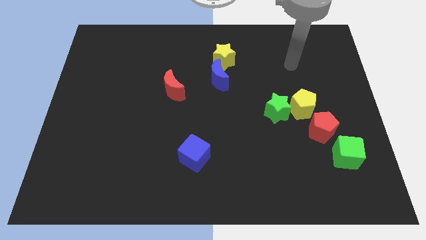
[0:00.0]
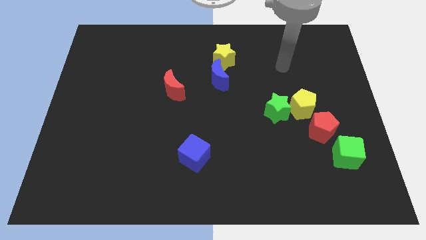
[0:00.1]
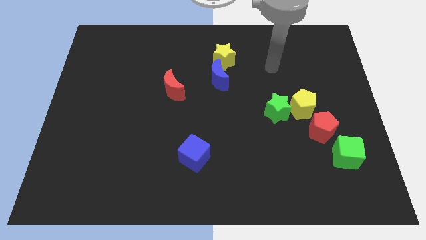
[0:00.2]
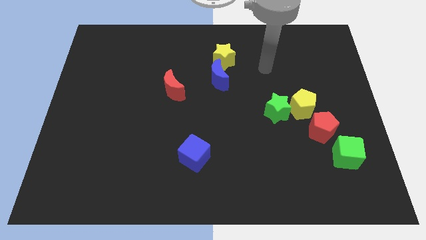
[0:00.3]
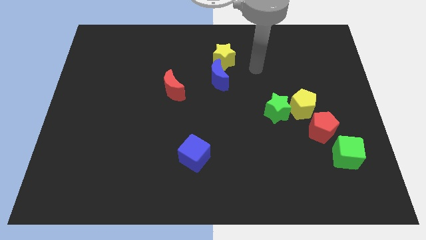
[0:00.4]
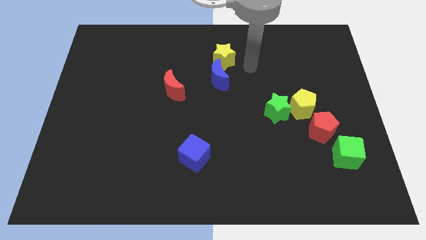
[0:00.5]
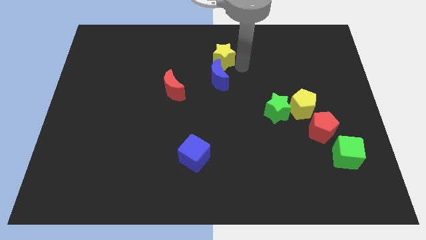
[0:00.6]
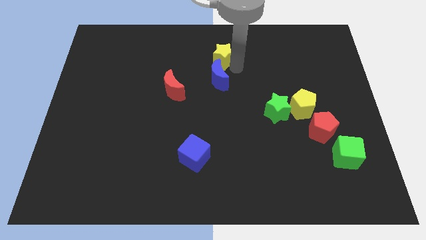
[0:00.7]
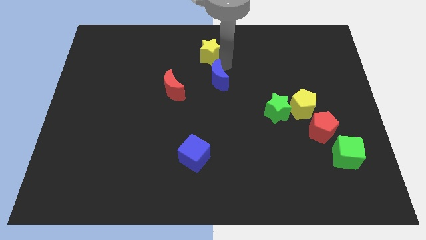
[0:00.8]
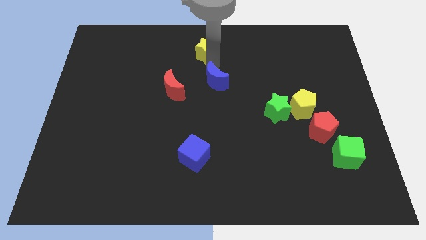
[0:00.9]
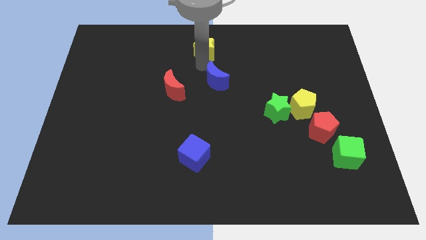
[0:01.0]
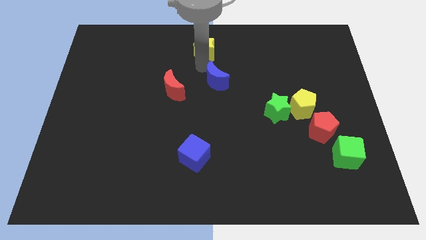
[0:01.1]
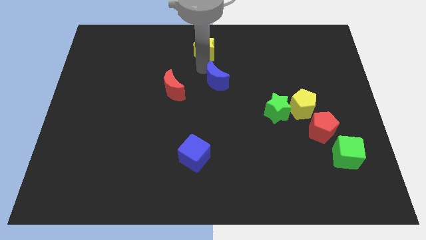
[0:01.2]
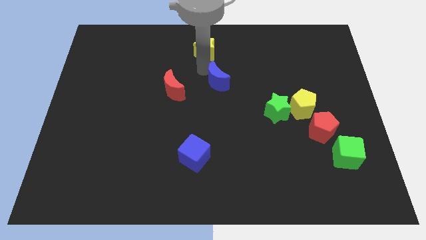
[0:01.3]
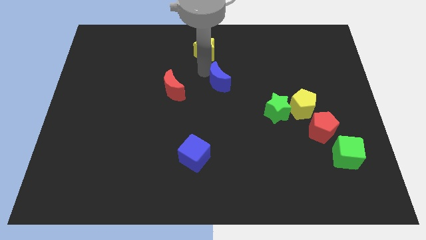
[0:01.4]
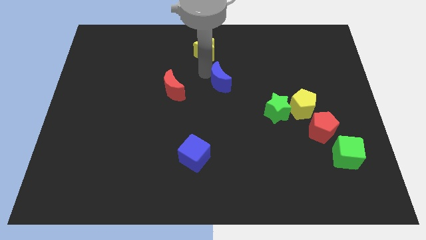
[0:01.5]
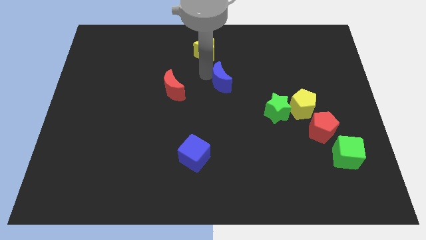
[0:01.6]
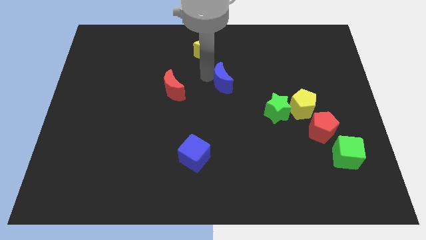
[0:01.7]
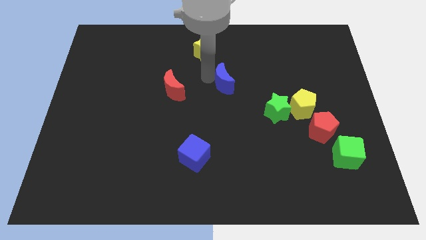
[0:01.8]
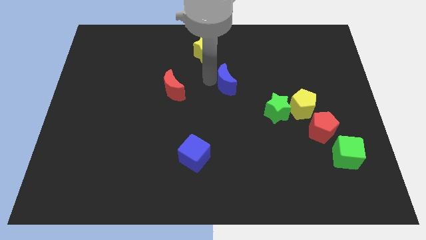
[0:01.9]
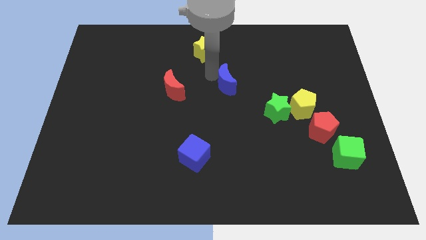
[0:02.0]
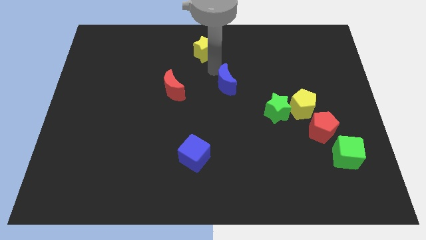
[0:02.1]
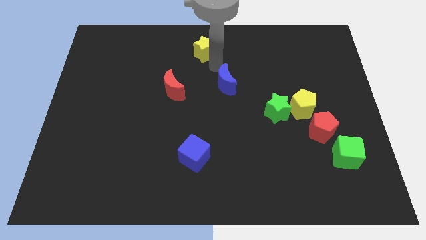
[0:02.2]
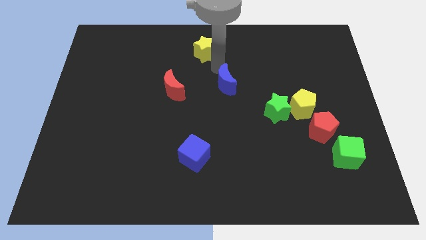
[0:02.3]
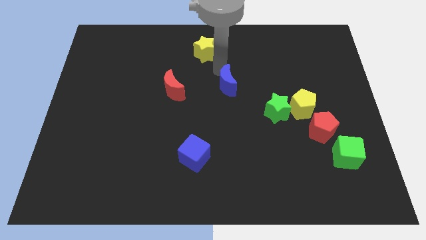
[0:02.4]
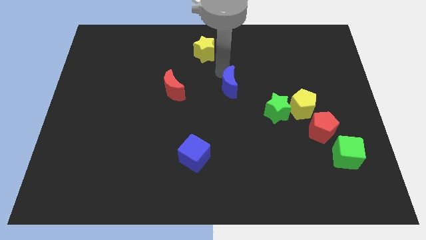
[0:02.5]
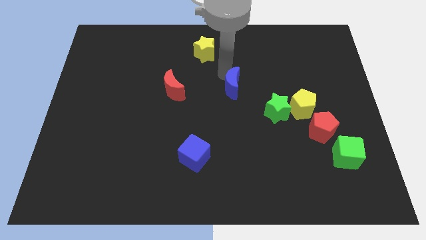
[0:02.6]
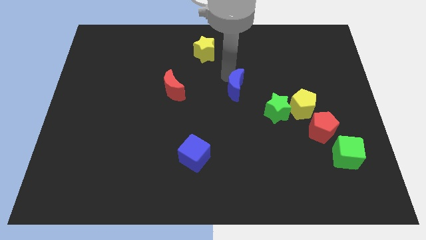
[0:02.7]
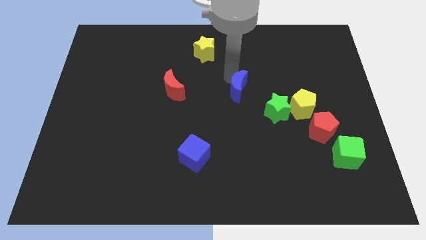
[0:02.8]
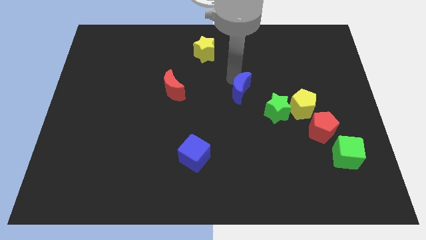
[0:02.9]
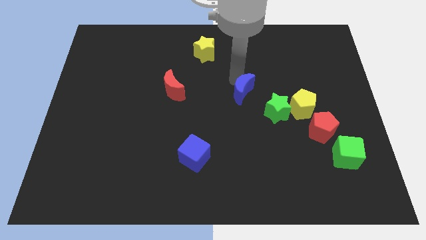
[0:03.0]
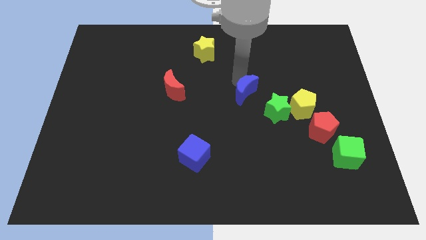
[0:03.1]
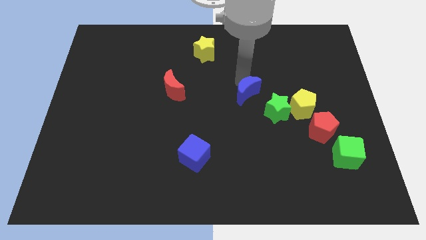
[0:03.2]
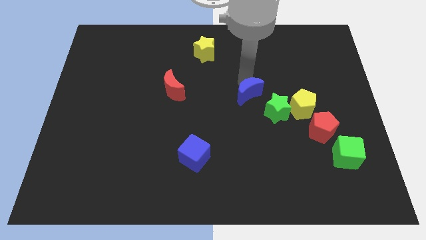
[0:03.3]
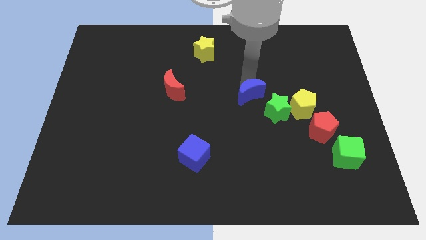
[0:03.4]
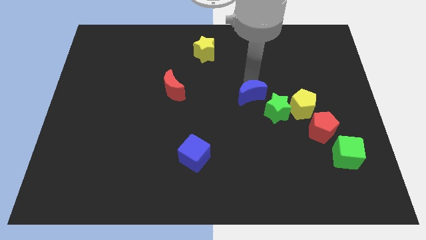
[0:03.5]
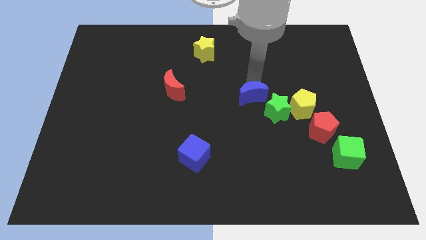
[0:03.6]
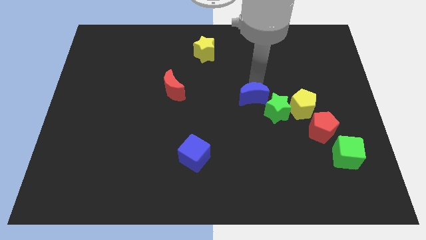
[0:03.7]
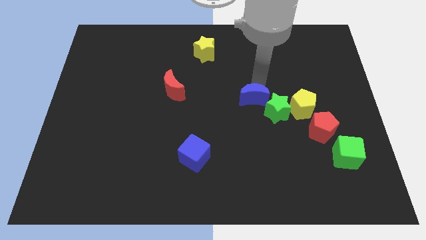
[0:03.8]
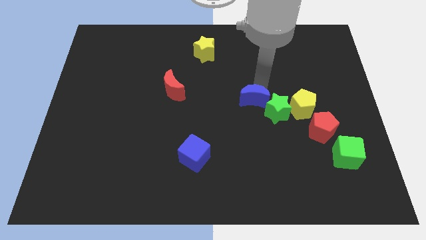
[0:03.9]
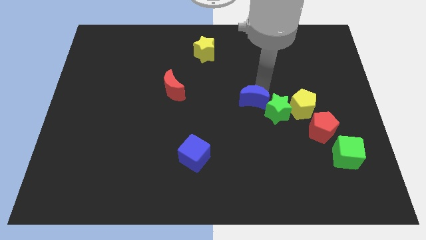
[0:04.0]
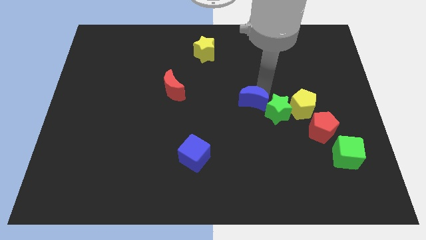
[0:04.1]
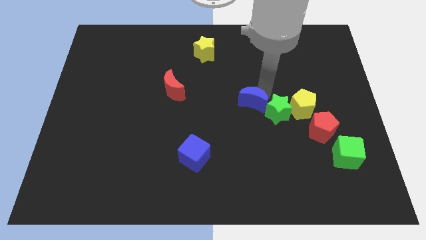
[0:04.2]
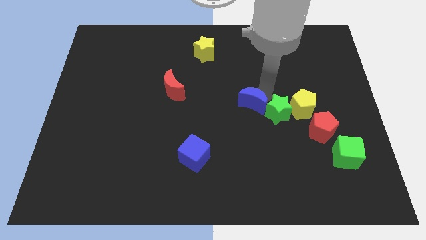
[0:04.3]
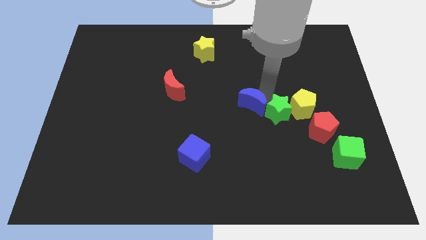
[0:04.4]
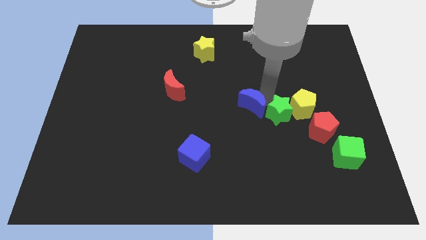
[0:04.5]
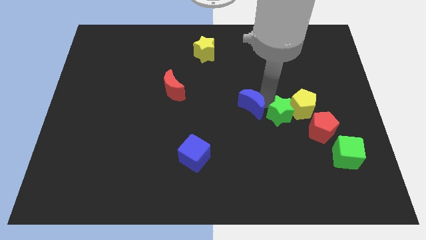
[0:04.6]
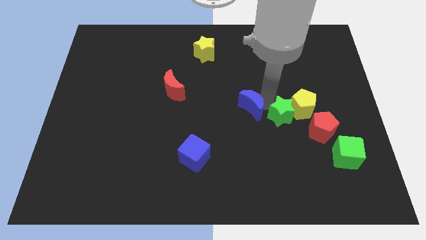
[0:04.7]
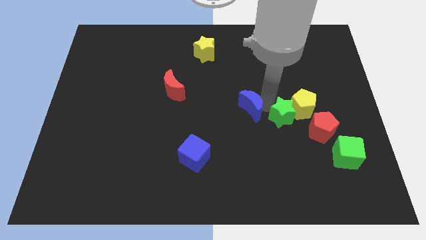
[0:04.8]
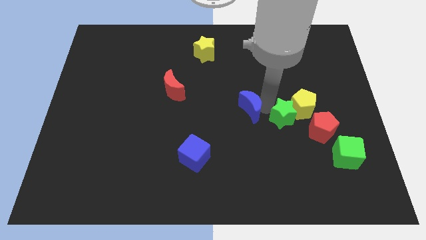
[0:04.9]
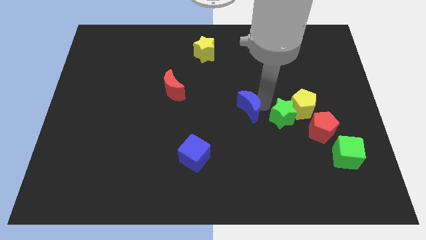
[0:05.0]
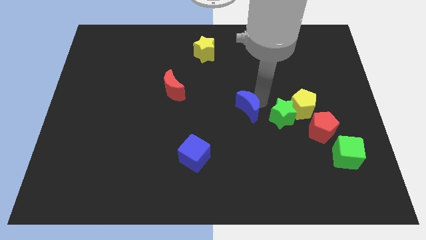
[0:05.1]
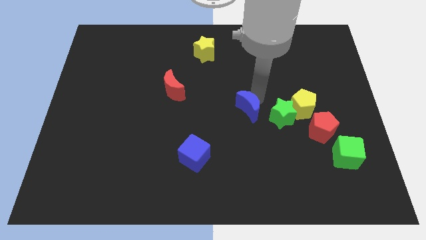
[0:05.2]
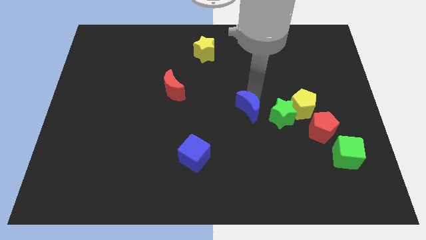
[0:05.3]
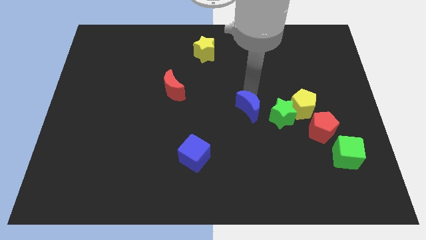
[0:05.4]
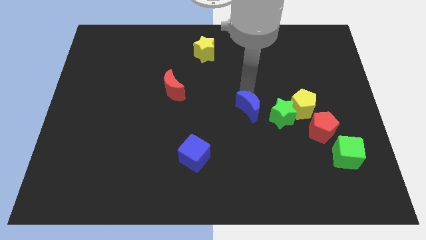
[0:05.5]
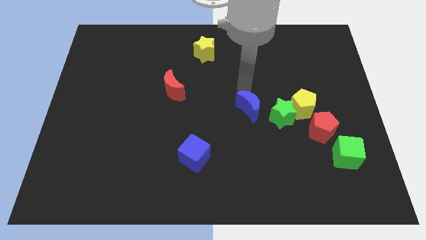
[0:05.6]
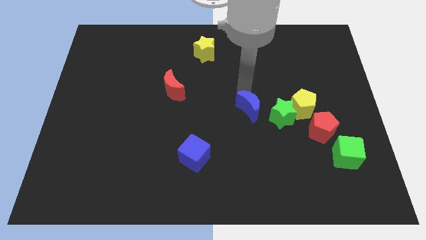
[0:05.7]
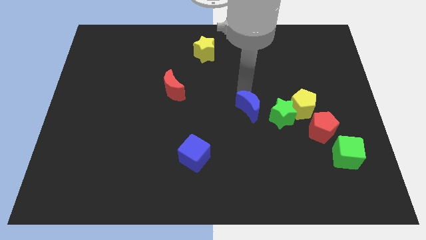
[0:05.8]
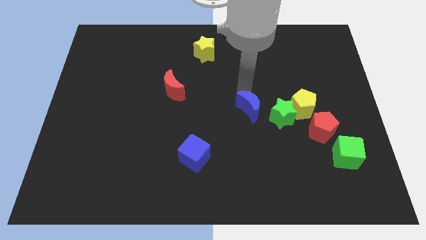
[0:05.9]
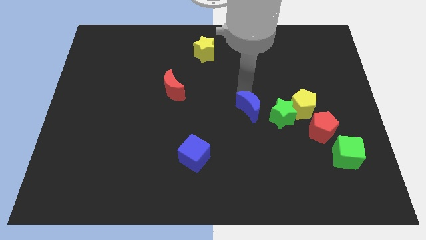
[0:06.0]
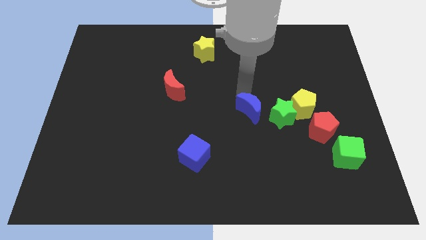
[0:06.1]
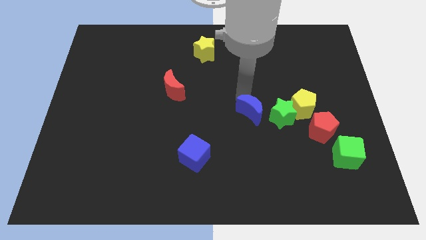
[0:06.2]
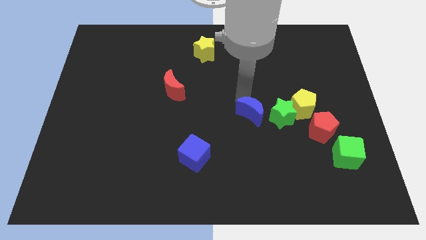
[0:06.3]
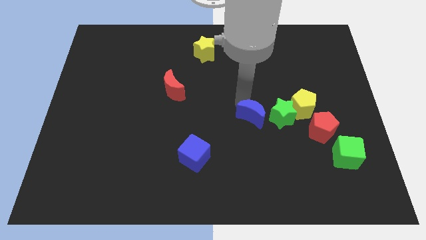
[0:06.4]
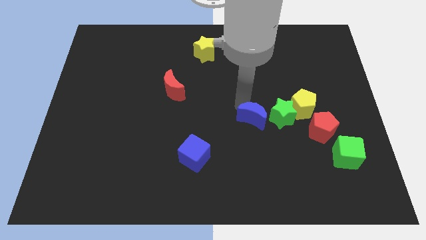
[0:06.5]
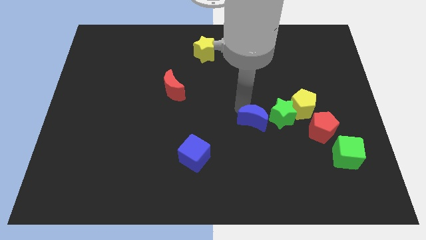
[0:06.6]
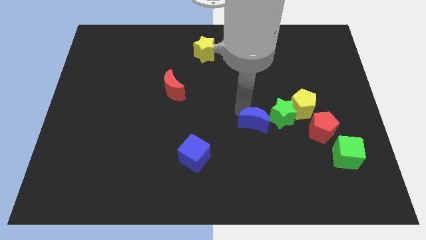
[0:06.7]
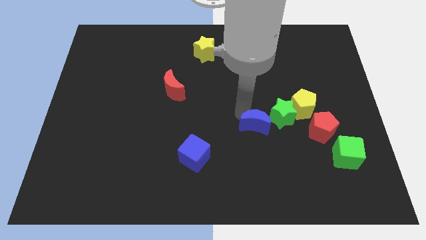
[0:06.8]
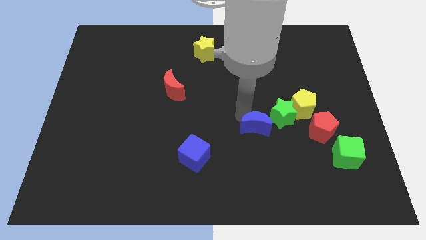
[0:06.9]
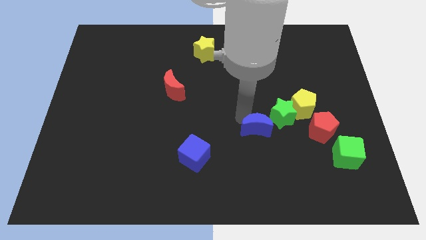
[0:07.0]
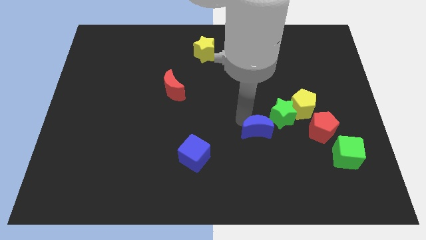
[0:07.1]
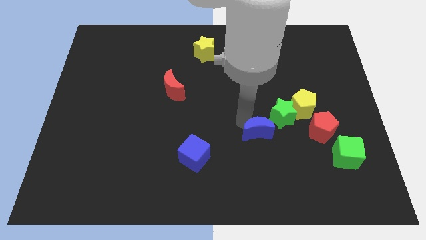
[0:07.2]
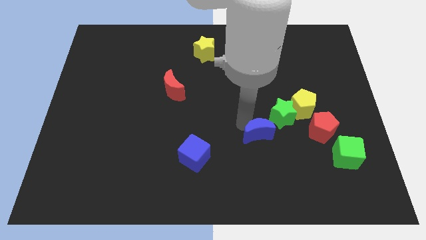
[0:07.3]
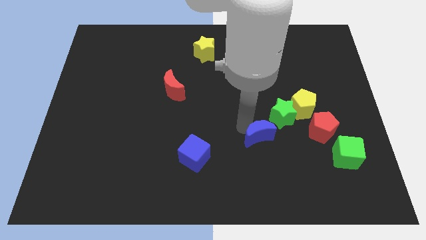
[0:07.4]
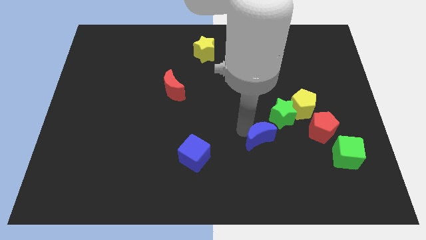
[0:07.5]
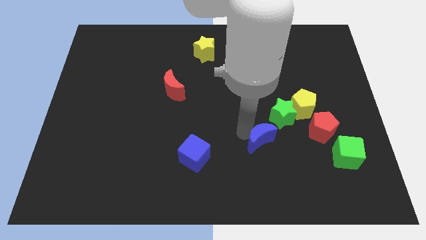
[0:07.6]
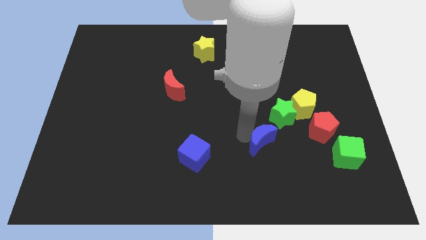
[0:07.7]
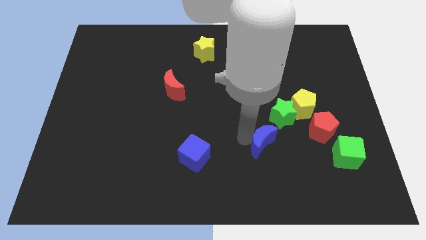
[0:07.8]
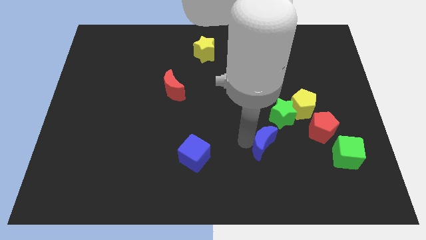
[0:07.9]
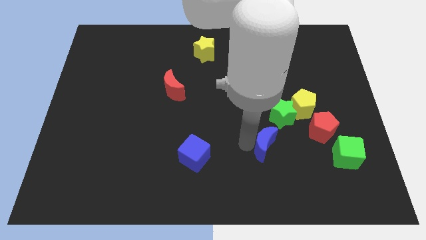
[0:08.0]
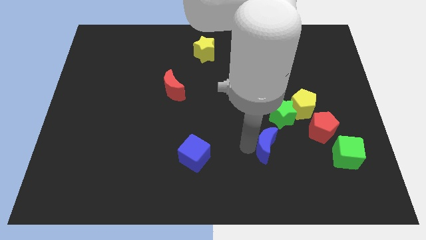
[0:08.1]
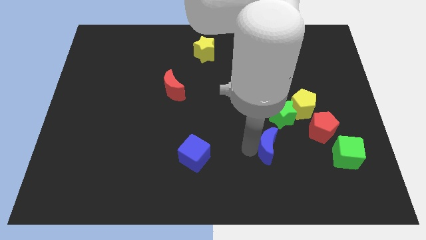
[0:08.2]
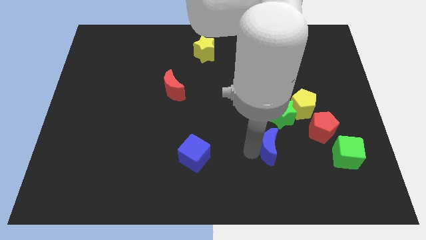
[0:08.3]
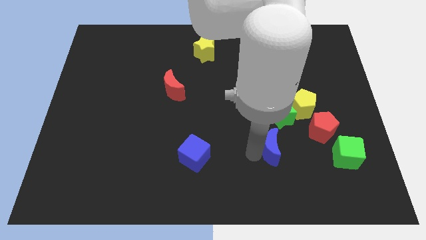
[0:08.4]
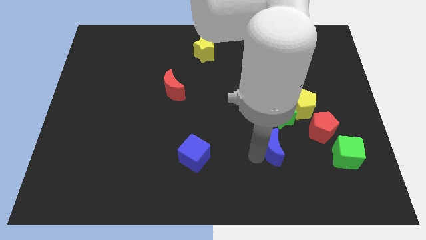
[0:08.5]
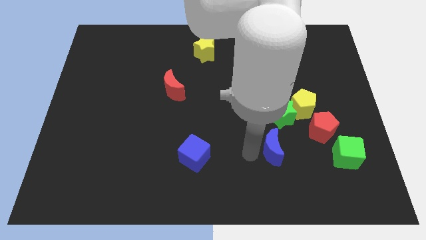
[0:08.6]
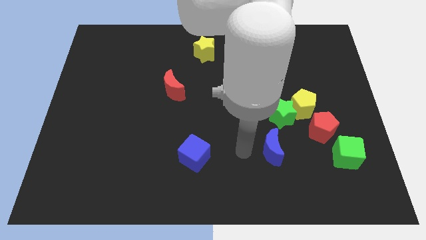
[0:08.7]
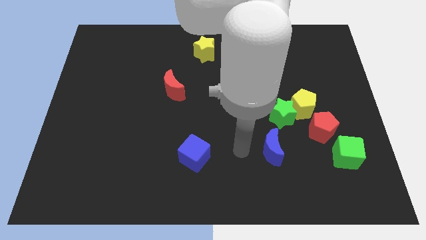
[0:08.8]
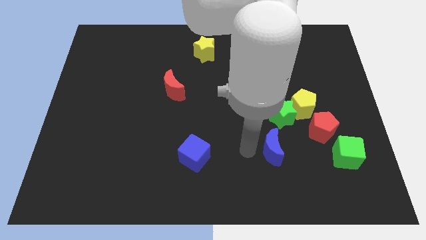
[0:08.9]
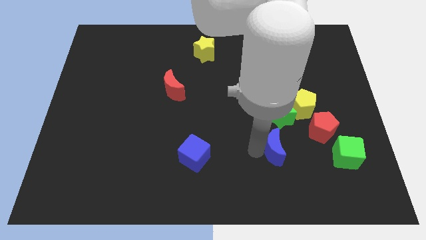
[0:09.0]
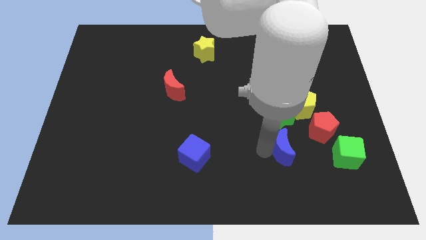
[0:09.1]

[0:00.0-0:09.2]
push the blue moon to the bottom left of the red pentagon
